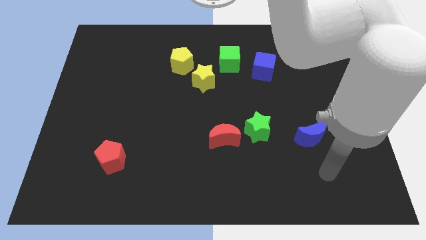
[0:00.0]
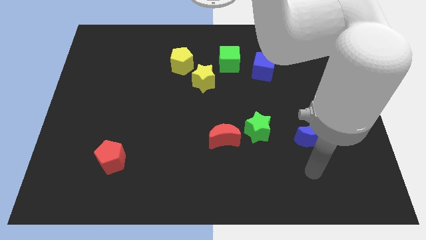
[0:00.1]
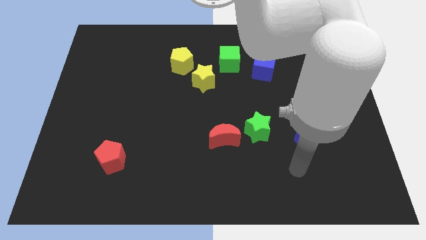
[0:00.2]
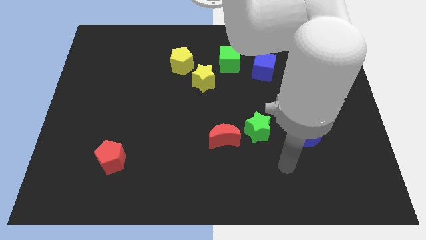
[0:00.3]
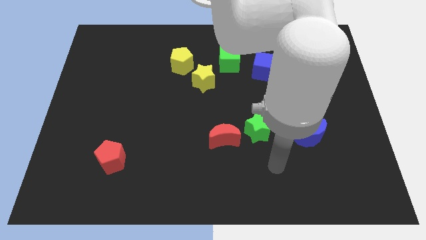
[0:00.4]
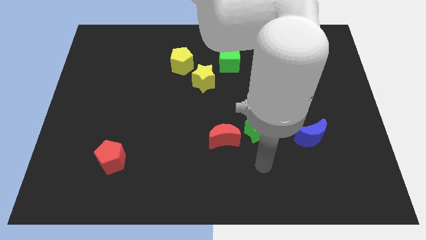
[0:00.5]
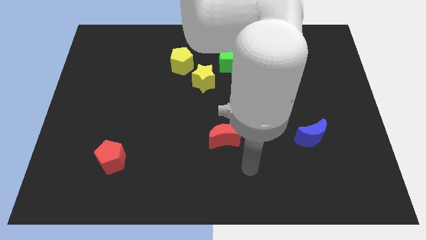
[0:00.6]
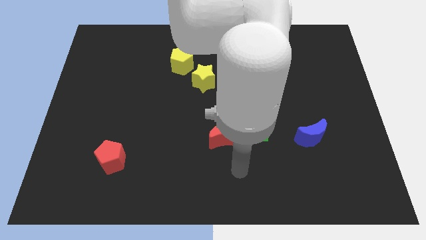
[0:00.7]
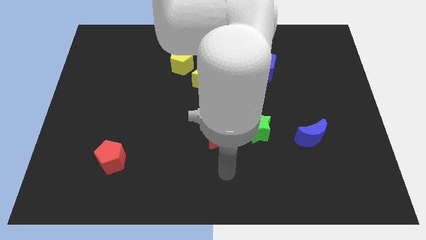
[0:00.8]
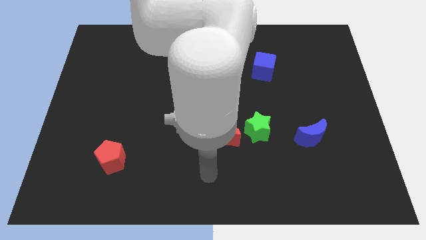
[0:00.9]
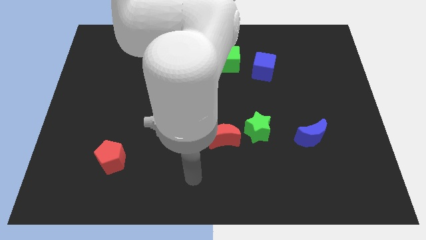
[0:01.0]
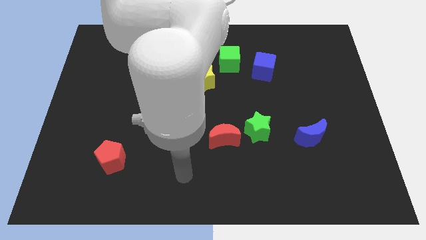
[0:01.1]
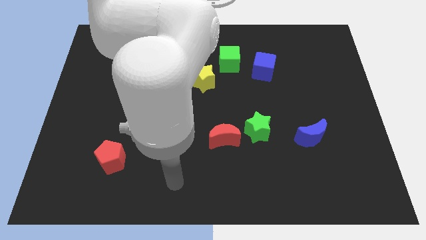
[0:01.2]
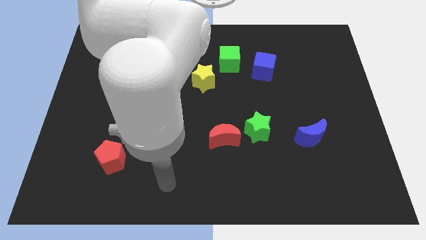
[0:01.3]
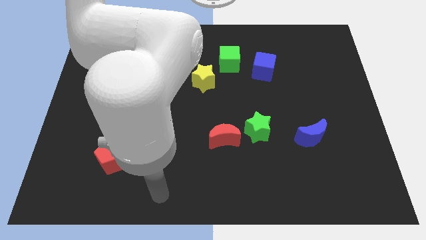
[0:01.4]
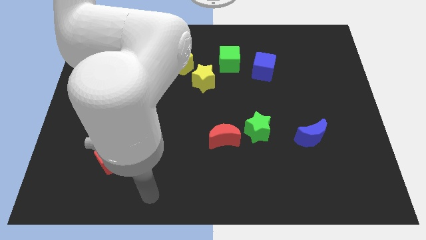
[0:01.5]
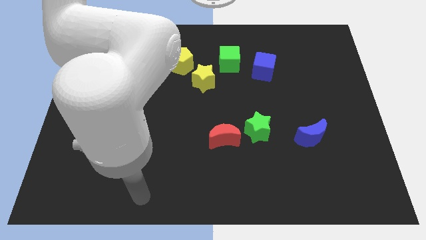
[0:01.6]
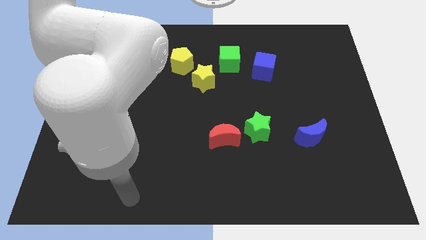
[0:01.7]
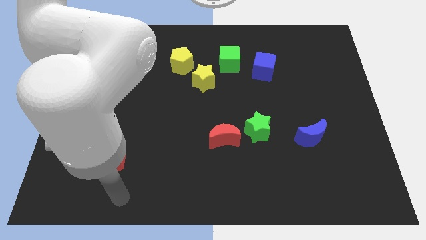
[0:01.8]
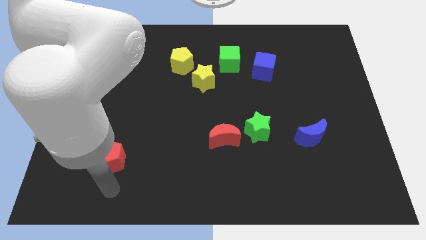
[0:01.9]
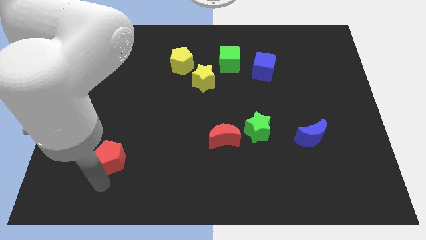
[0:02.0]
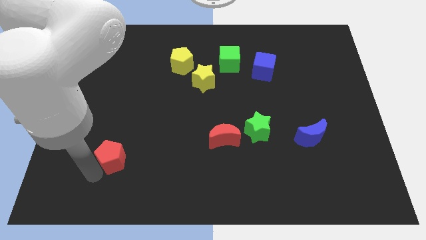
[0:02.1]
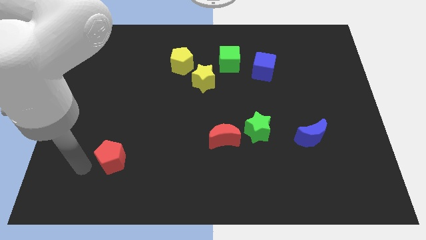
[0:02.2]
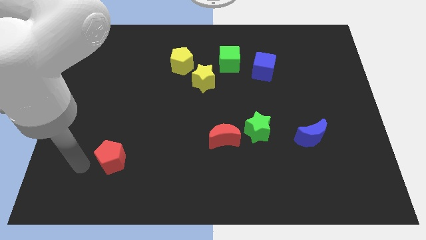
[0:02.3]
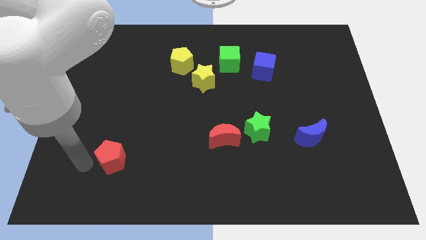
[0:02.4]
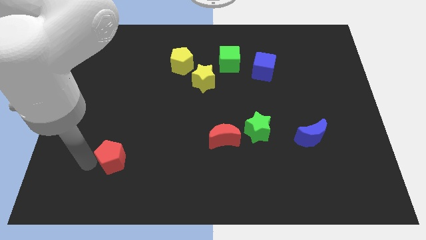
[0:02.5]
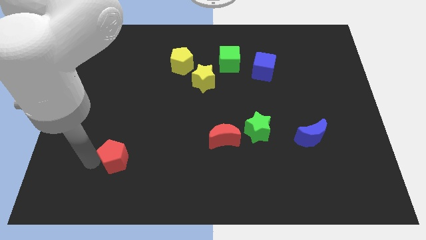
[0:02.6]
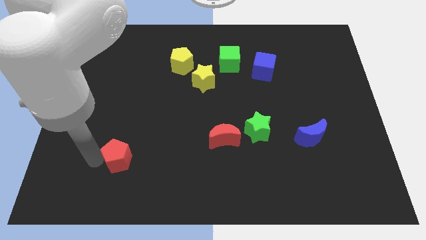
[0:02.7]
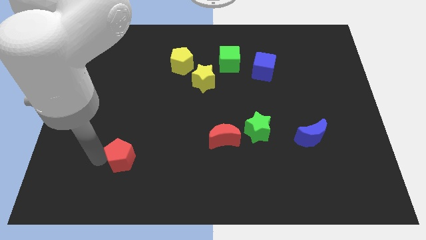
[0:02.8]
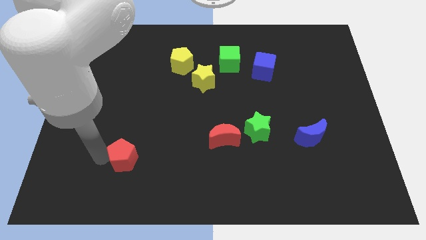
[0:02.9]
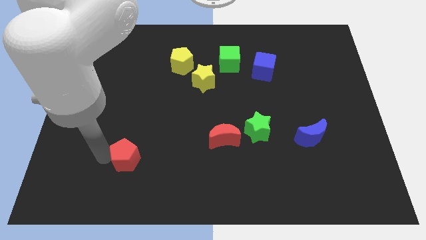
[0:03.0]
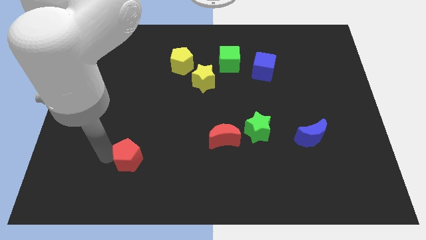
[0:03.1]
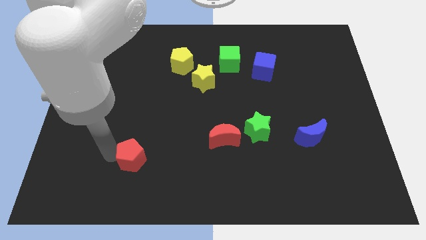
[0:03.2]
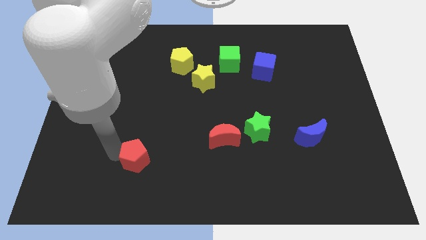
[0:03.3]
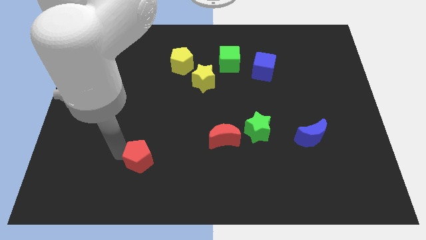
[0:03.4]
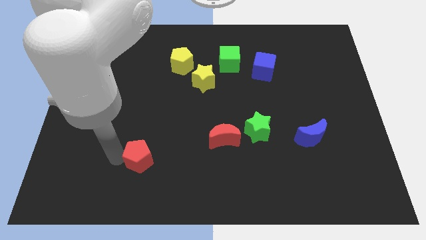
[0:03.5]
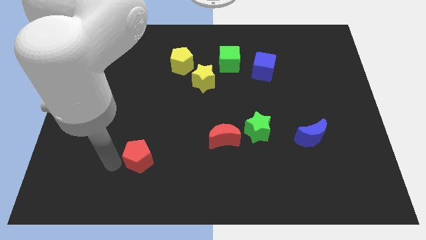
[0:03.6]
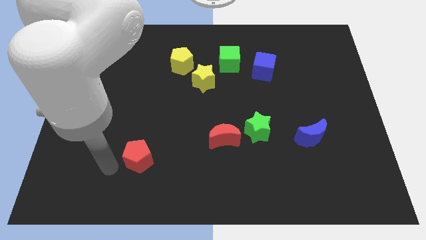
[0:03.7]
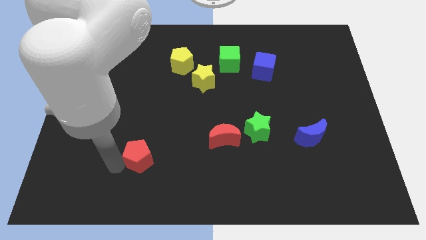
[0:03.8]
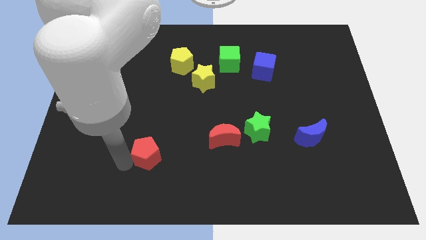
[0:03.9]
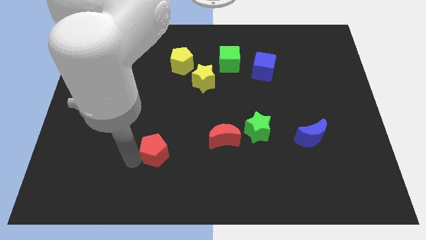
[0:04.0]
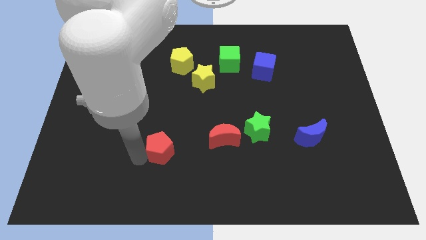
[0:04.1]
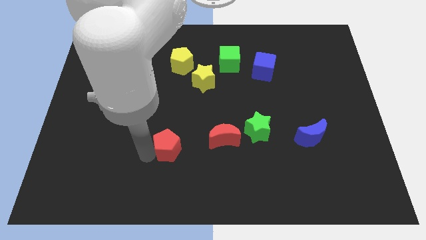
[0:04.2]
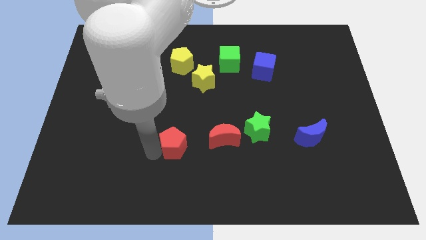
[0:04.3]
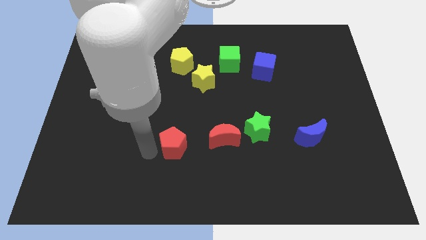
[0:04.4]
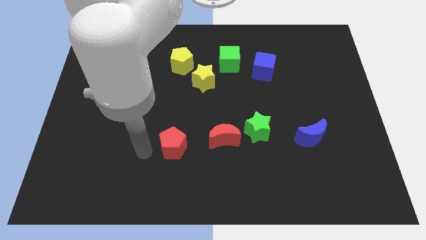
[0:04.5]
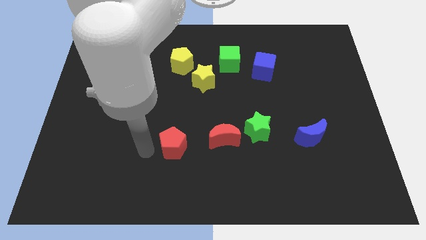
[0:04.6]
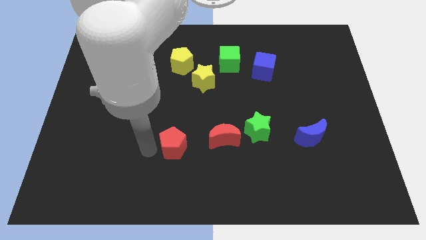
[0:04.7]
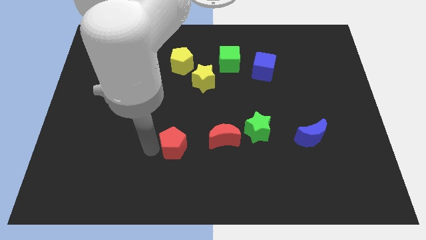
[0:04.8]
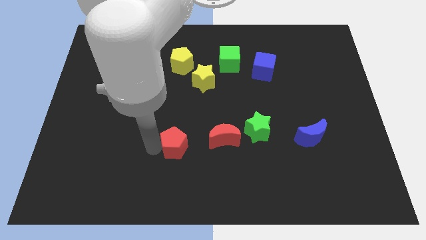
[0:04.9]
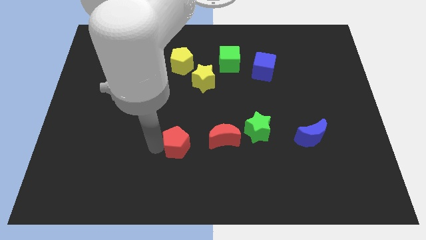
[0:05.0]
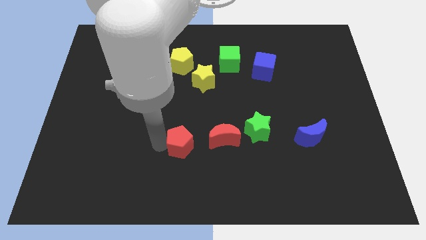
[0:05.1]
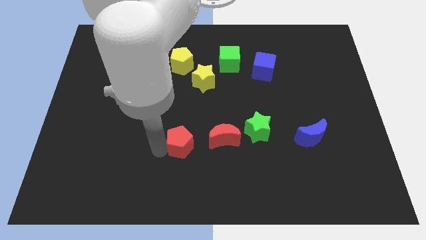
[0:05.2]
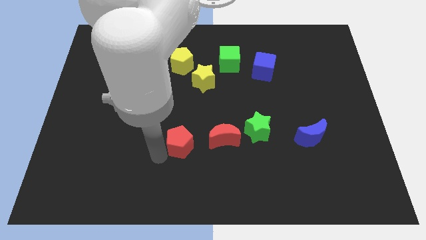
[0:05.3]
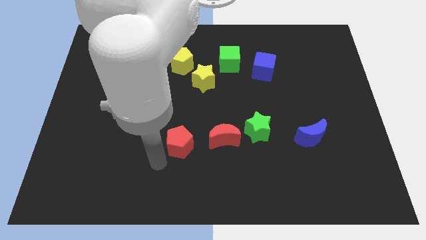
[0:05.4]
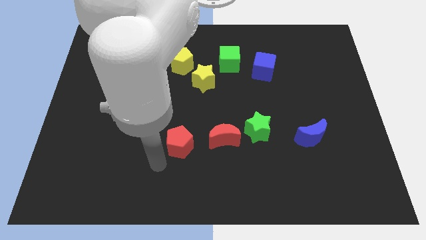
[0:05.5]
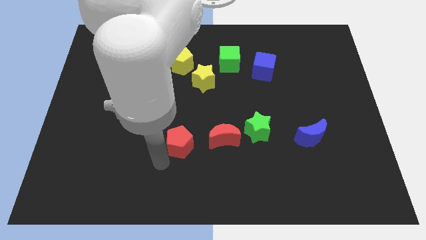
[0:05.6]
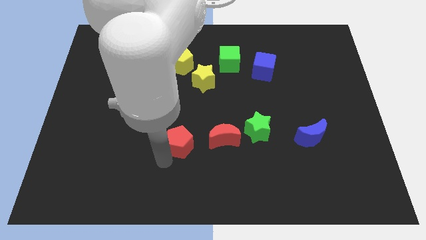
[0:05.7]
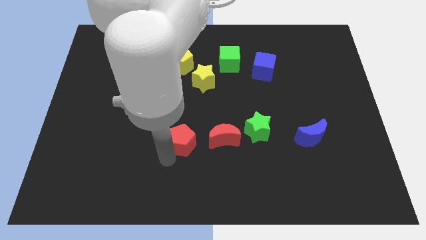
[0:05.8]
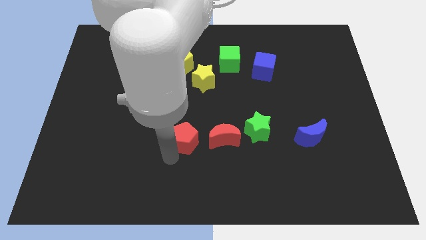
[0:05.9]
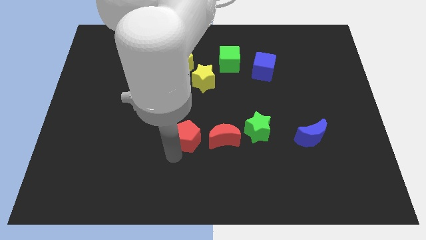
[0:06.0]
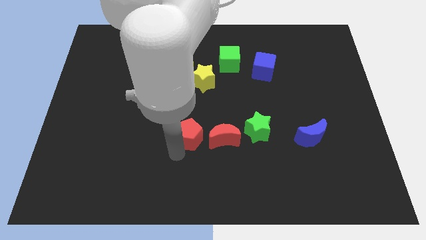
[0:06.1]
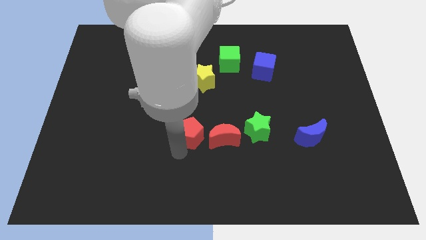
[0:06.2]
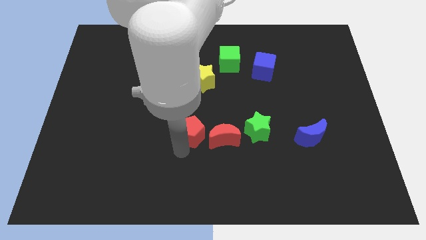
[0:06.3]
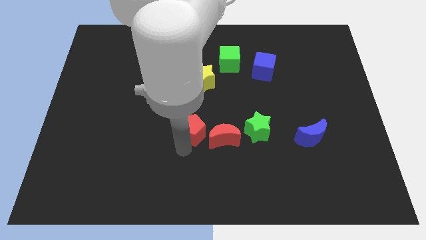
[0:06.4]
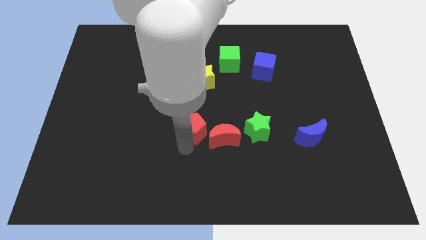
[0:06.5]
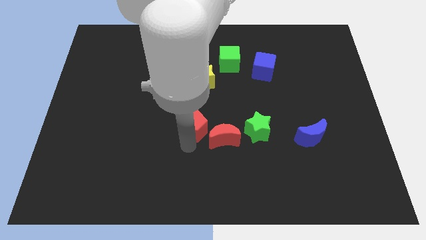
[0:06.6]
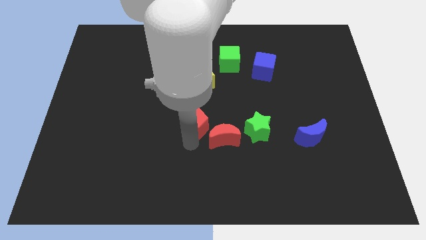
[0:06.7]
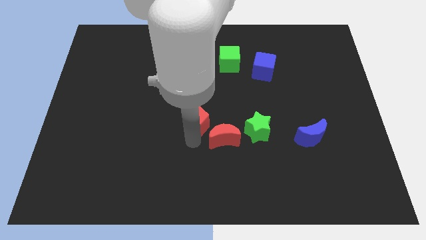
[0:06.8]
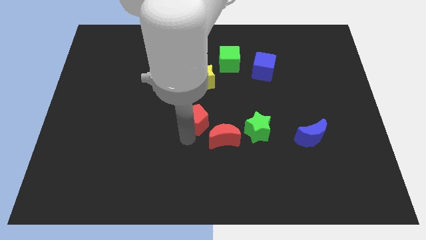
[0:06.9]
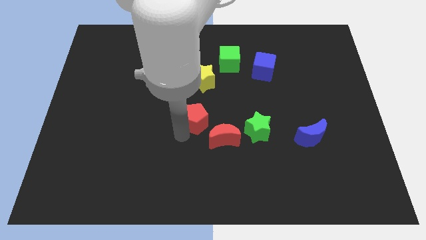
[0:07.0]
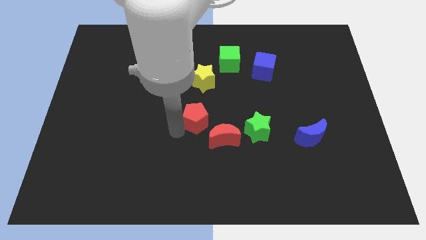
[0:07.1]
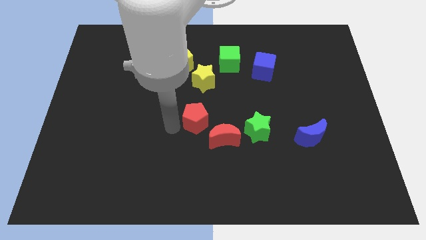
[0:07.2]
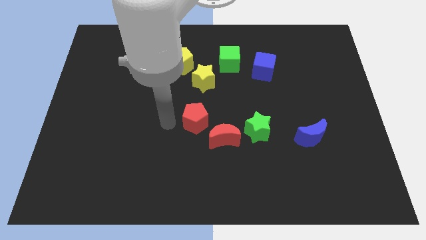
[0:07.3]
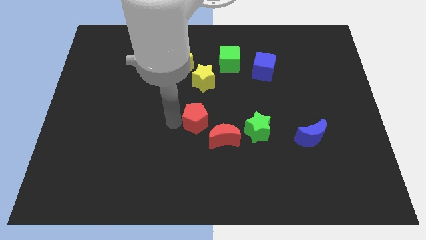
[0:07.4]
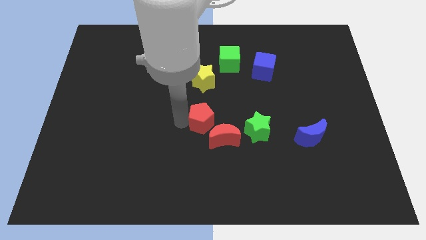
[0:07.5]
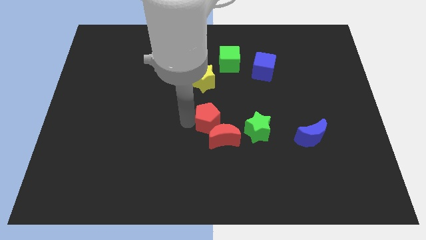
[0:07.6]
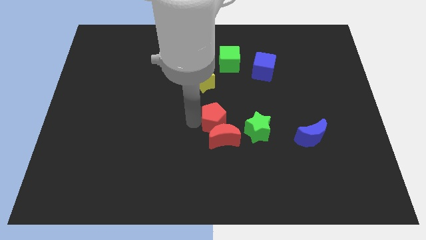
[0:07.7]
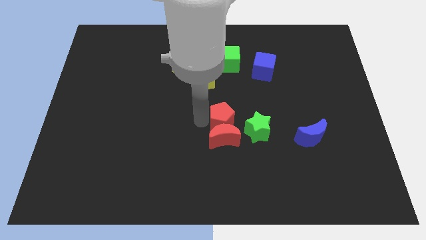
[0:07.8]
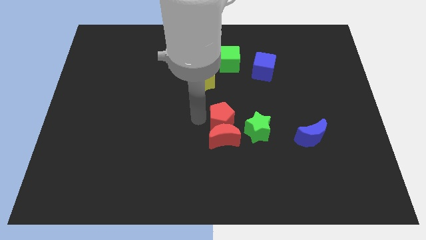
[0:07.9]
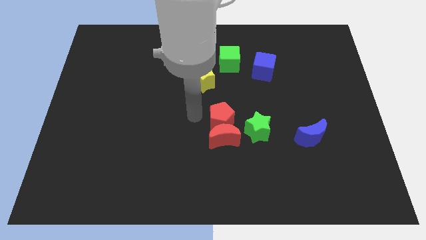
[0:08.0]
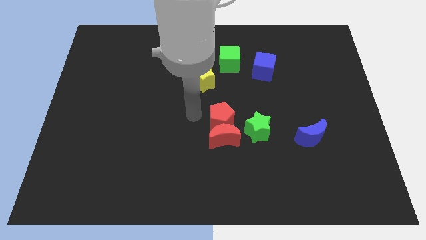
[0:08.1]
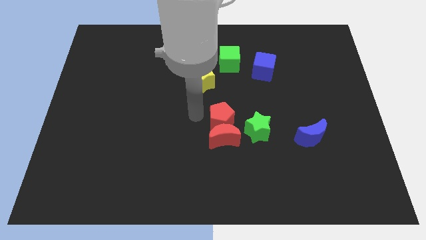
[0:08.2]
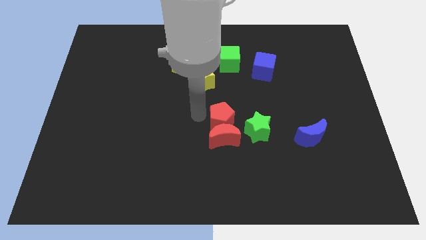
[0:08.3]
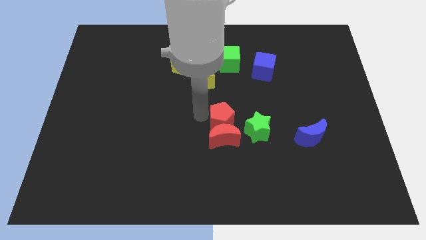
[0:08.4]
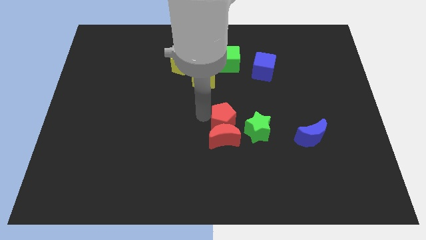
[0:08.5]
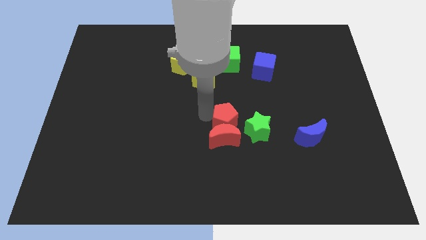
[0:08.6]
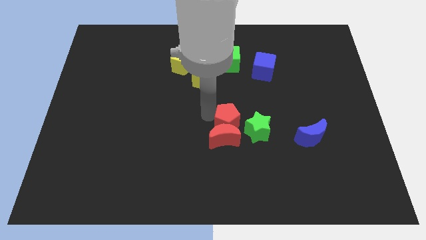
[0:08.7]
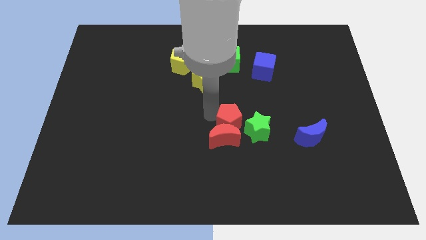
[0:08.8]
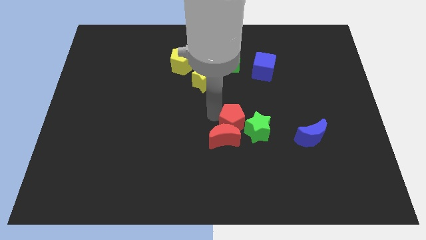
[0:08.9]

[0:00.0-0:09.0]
move the red pentagon to the green star
